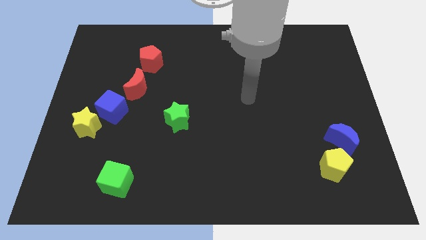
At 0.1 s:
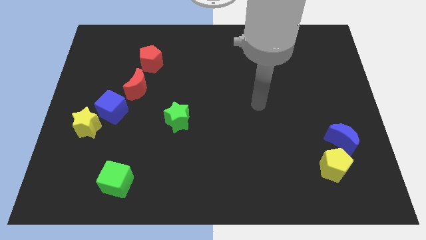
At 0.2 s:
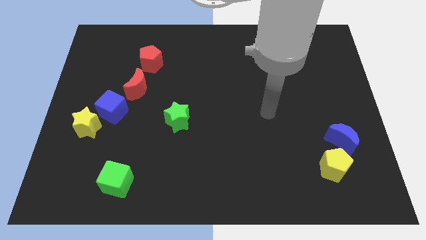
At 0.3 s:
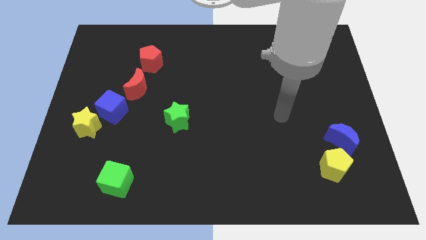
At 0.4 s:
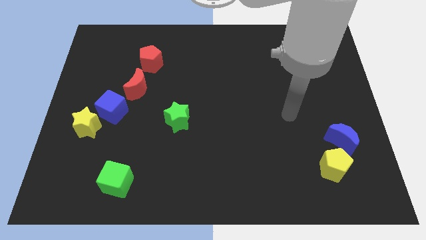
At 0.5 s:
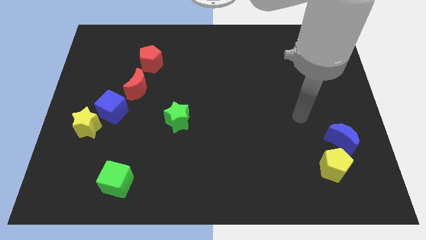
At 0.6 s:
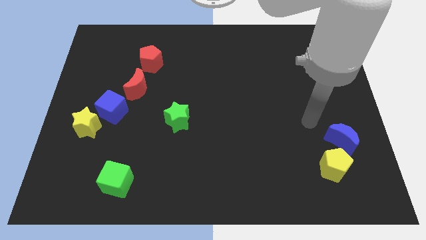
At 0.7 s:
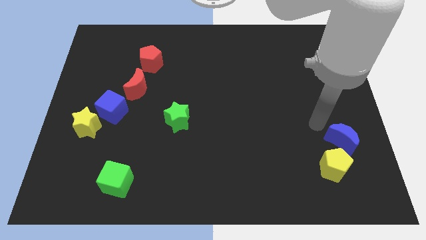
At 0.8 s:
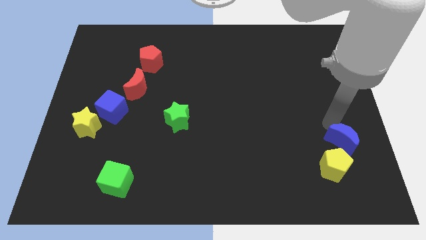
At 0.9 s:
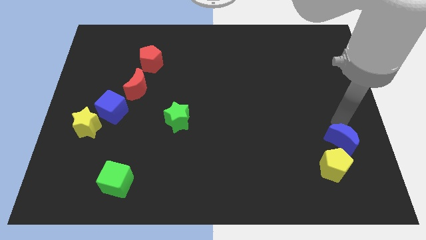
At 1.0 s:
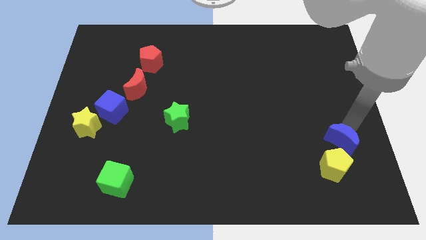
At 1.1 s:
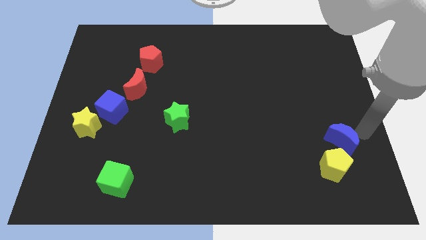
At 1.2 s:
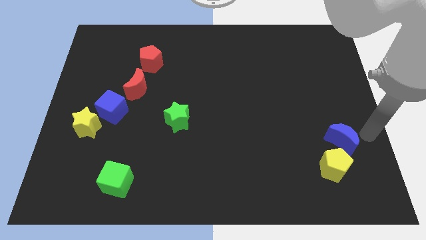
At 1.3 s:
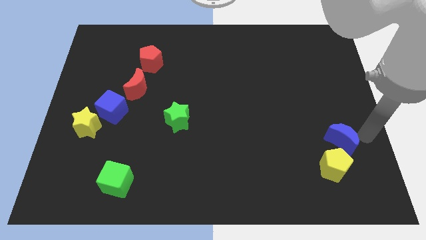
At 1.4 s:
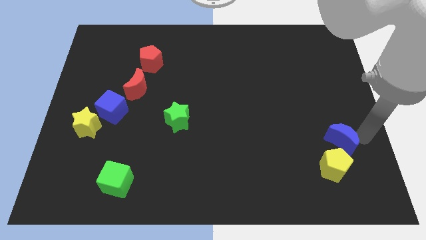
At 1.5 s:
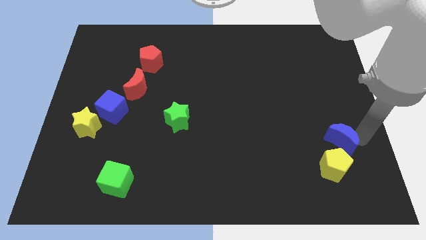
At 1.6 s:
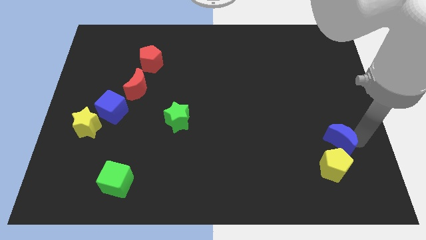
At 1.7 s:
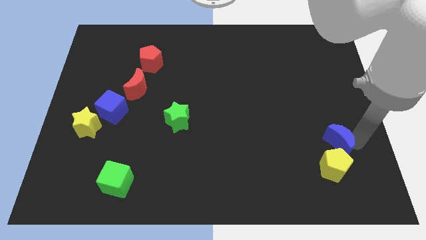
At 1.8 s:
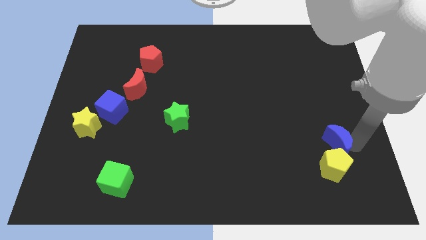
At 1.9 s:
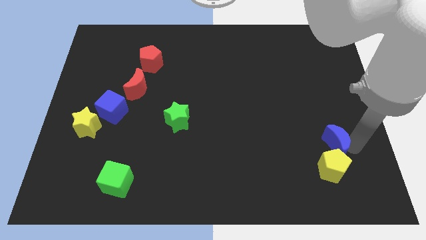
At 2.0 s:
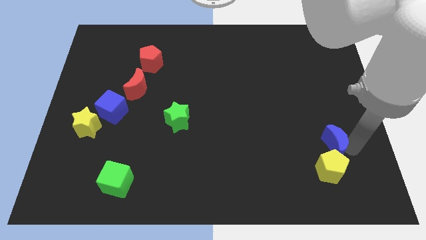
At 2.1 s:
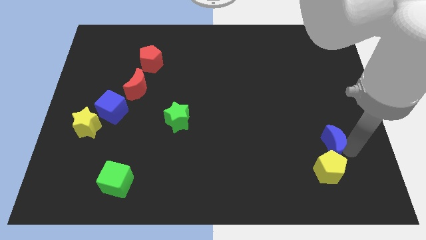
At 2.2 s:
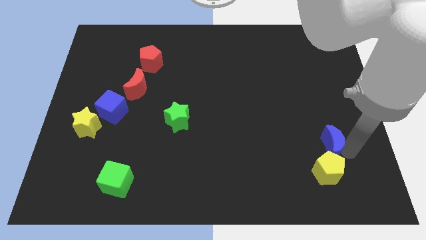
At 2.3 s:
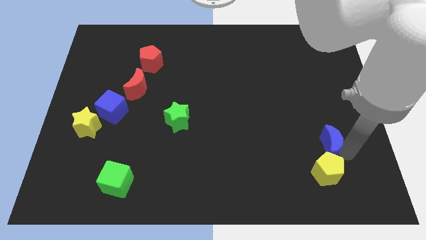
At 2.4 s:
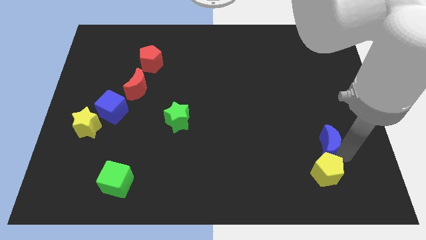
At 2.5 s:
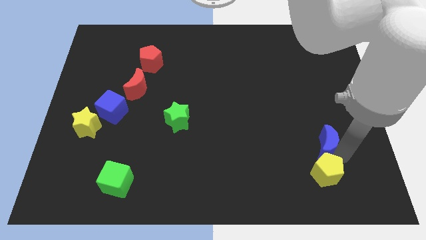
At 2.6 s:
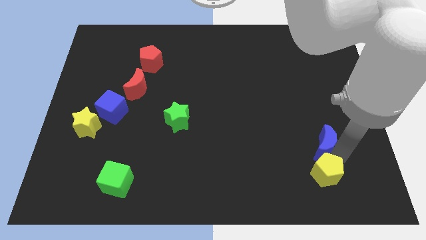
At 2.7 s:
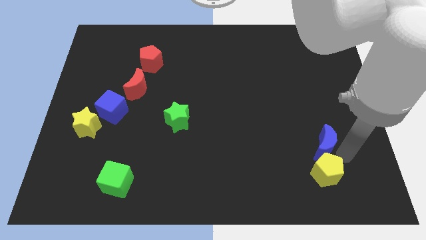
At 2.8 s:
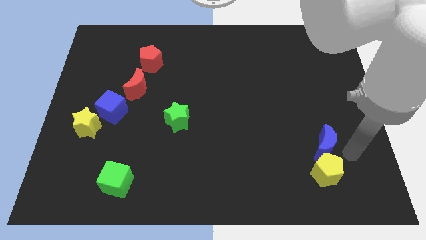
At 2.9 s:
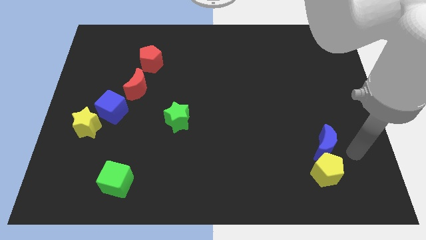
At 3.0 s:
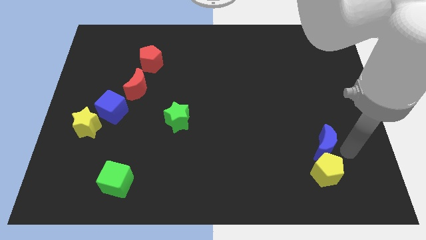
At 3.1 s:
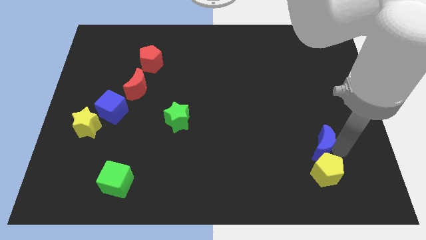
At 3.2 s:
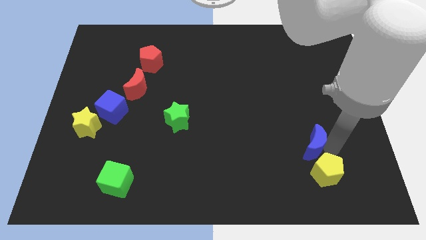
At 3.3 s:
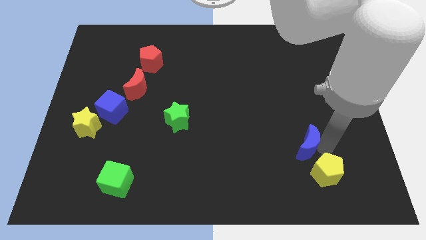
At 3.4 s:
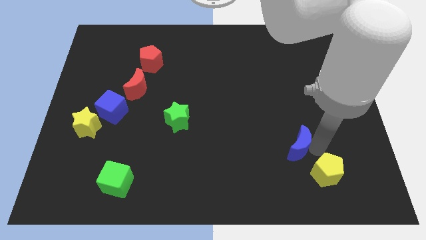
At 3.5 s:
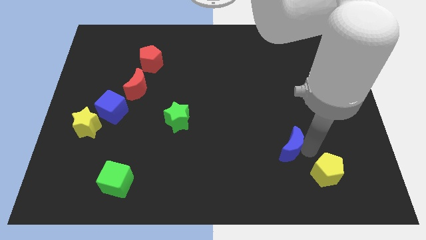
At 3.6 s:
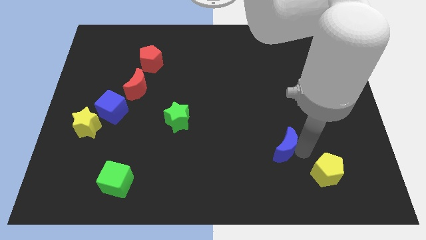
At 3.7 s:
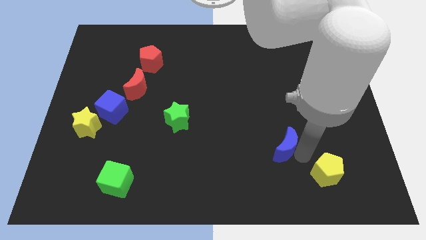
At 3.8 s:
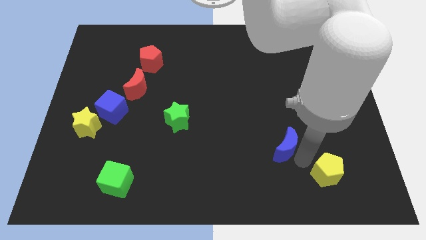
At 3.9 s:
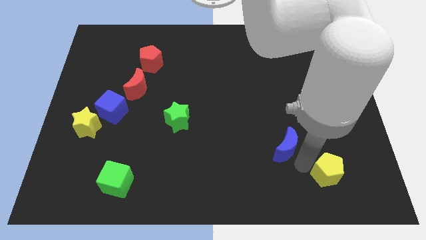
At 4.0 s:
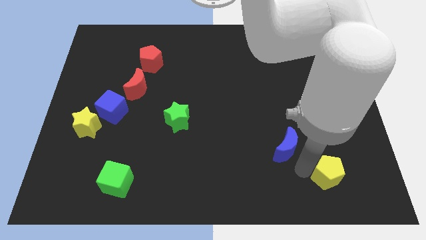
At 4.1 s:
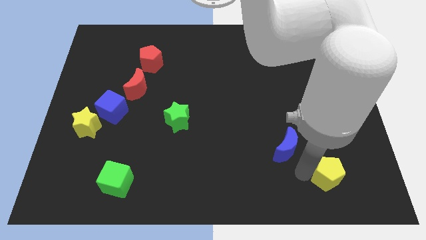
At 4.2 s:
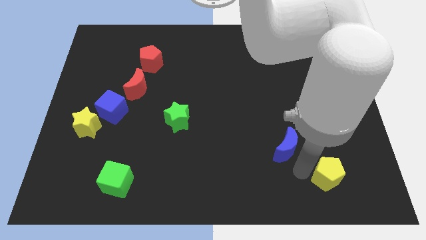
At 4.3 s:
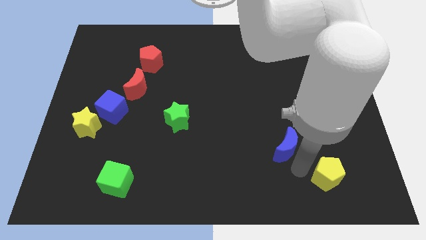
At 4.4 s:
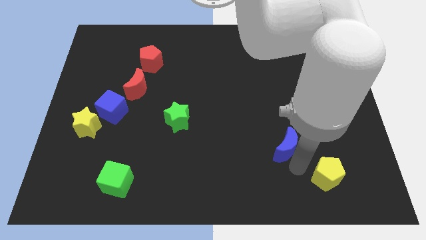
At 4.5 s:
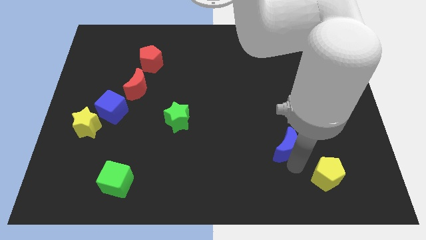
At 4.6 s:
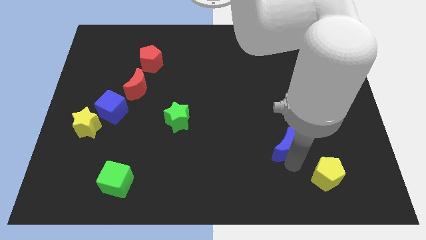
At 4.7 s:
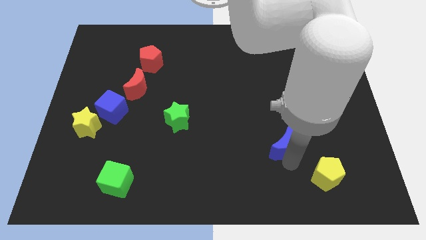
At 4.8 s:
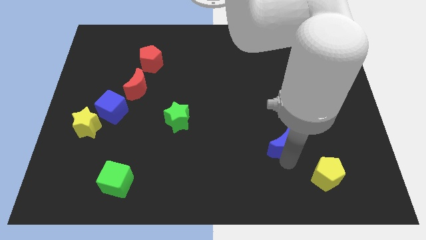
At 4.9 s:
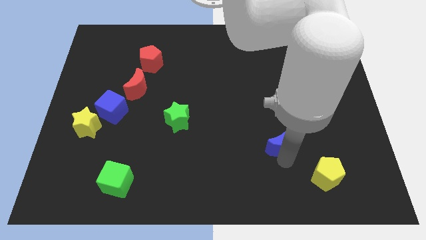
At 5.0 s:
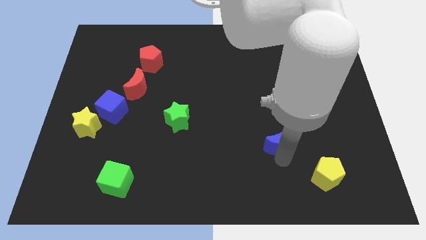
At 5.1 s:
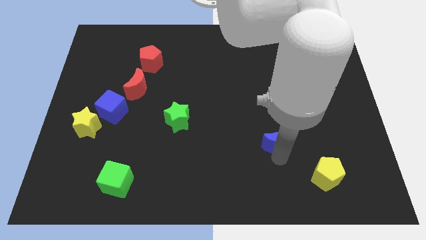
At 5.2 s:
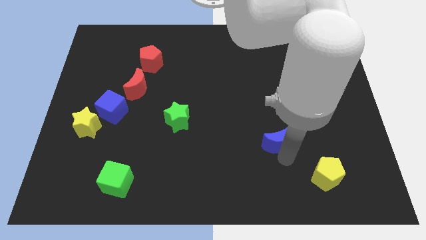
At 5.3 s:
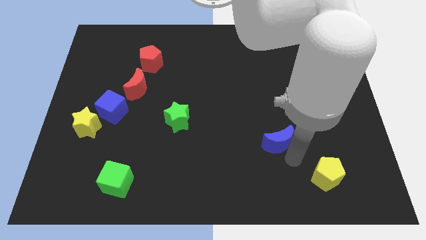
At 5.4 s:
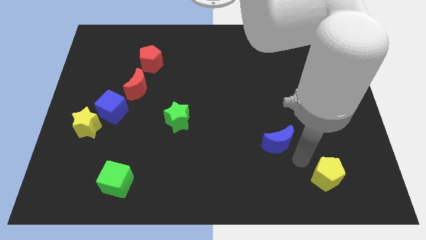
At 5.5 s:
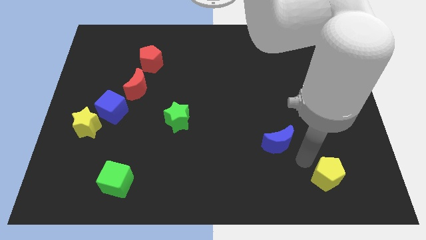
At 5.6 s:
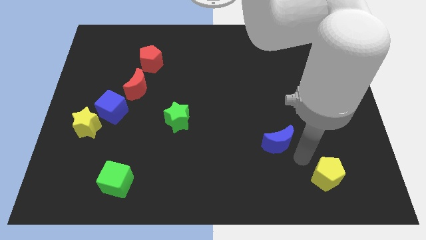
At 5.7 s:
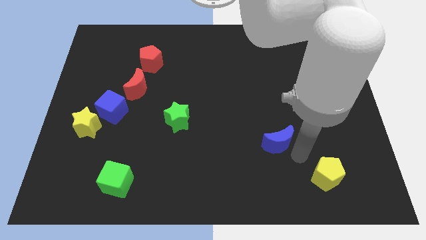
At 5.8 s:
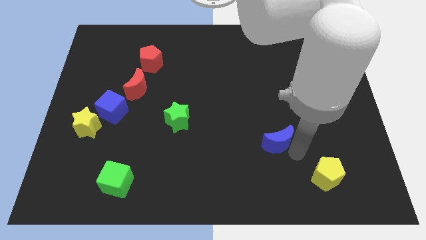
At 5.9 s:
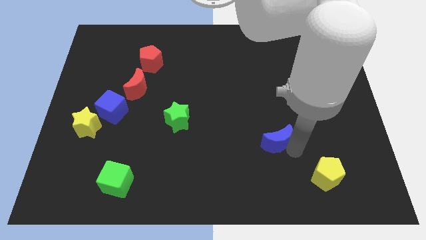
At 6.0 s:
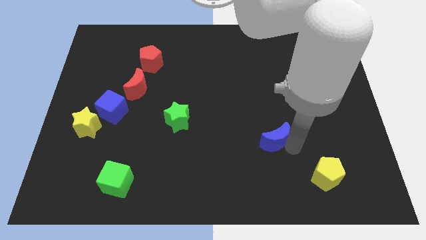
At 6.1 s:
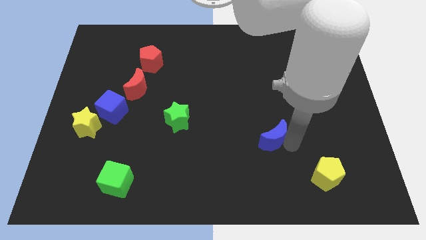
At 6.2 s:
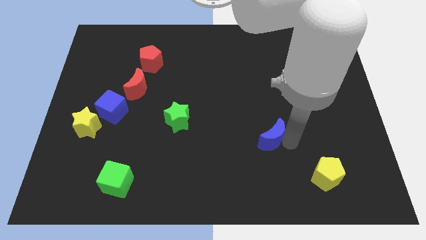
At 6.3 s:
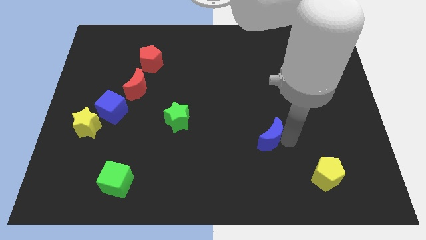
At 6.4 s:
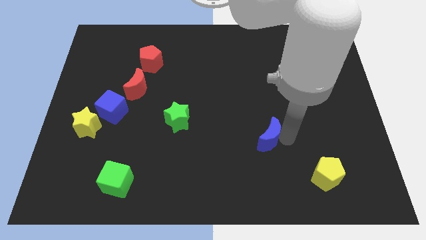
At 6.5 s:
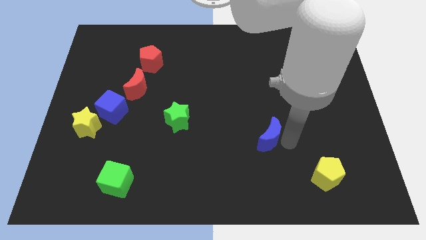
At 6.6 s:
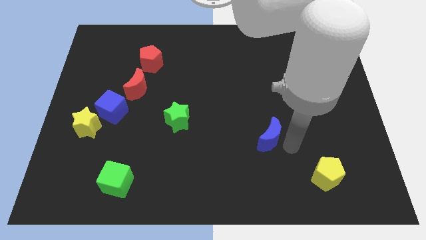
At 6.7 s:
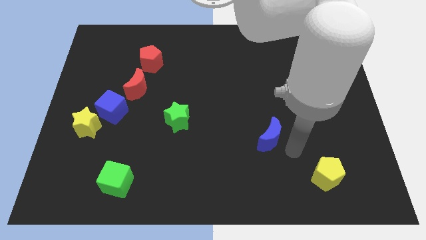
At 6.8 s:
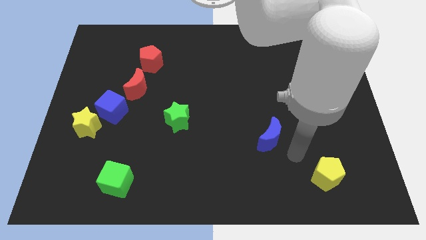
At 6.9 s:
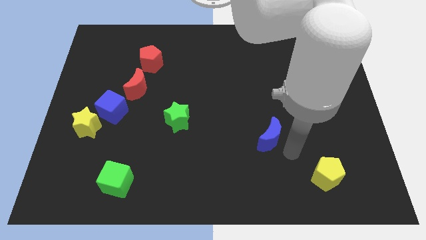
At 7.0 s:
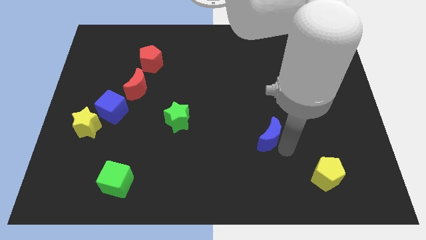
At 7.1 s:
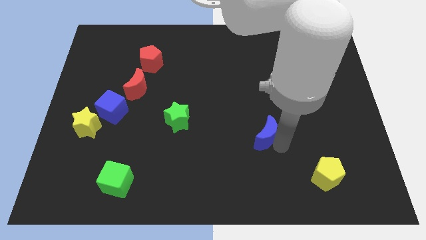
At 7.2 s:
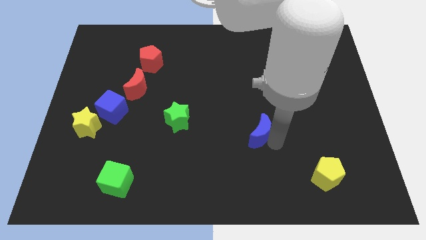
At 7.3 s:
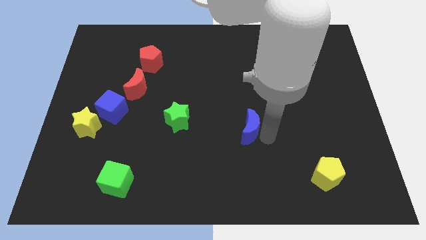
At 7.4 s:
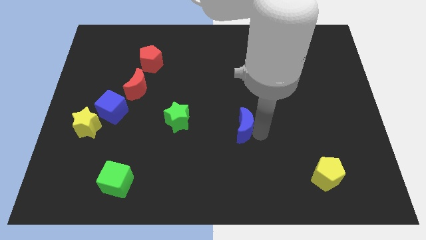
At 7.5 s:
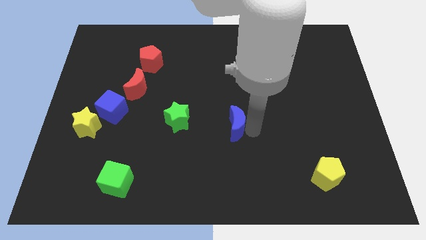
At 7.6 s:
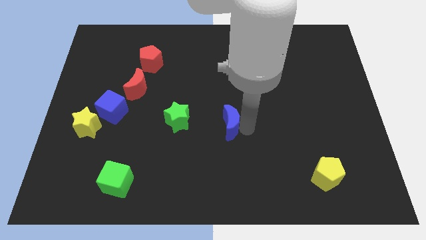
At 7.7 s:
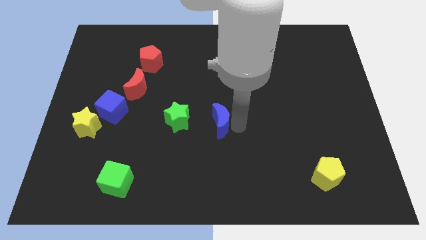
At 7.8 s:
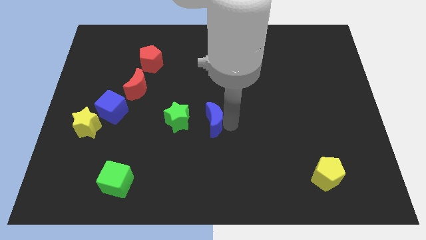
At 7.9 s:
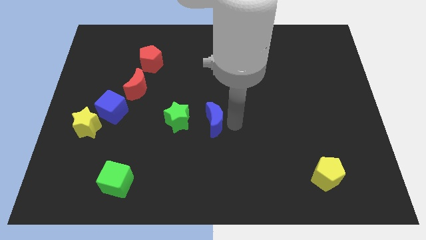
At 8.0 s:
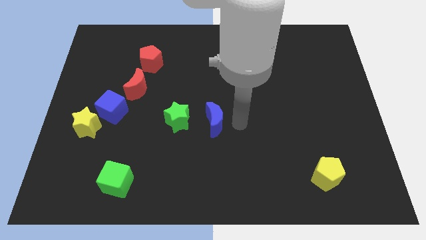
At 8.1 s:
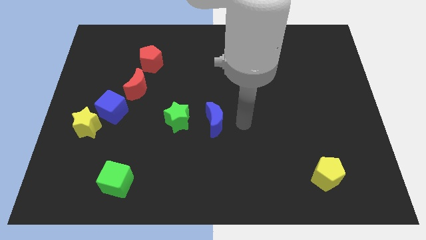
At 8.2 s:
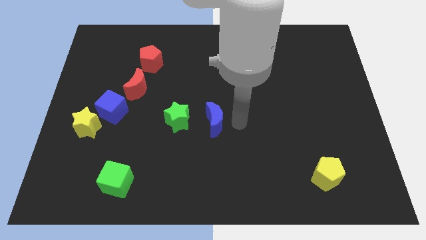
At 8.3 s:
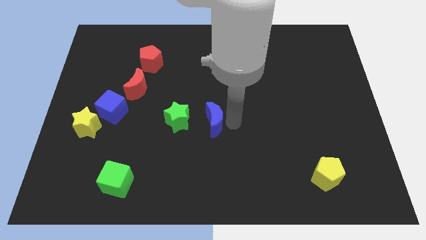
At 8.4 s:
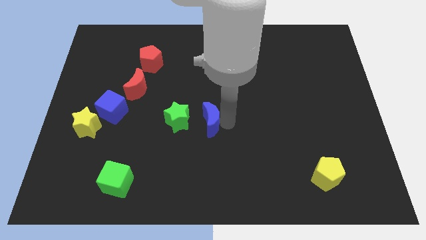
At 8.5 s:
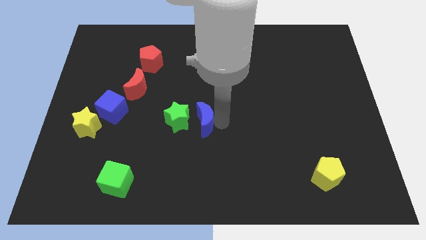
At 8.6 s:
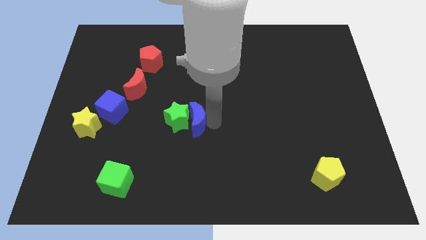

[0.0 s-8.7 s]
slide the blue moon towards the green star
